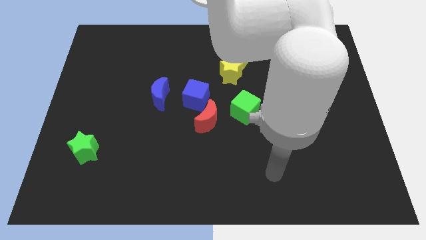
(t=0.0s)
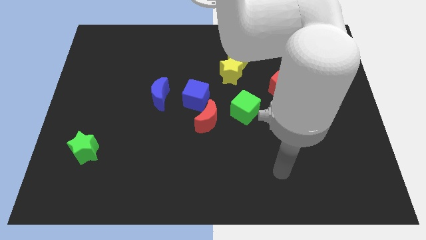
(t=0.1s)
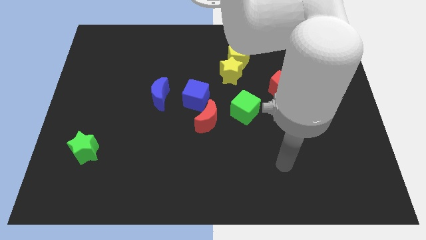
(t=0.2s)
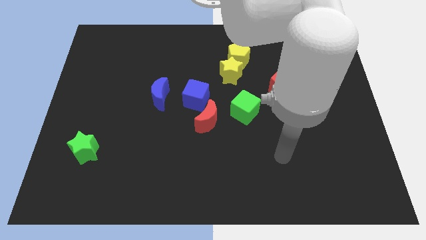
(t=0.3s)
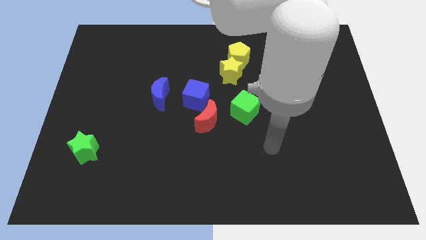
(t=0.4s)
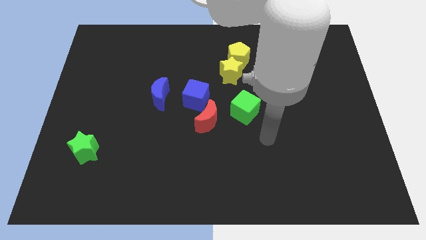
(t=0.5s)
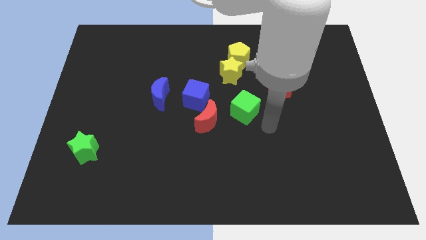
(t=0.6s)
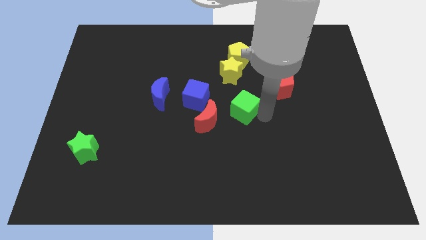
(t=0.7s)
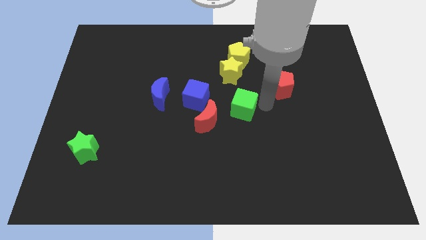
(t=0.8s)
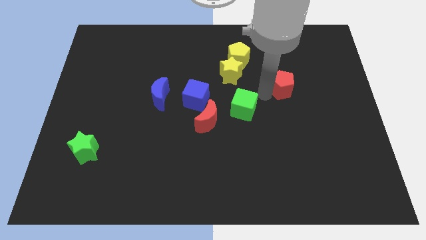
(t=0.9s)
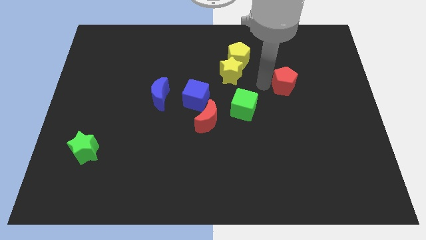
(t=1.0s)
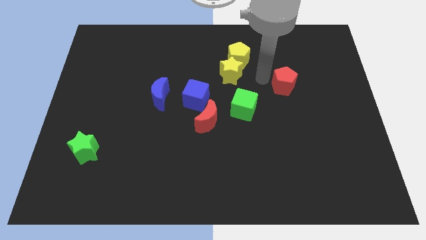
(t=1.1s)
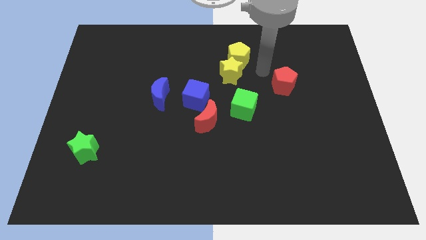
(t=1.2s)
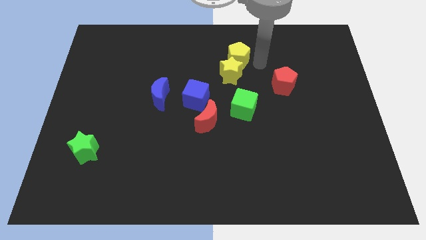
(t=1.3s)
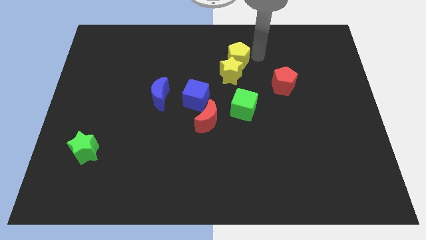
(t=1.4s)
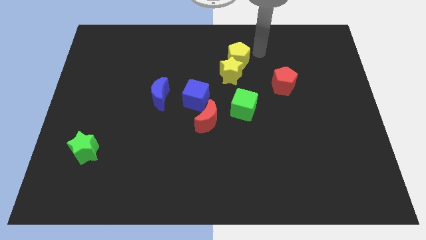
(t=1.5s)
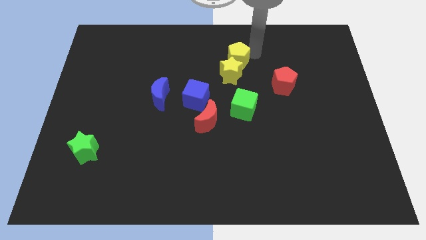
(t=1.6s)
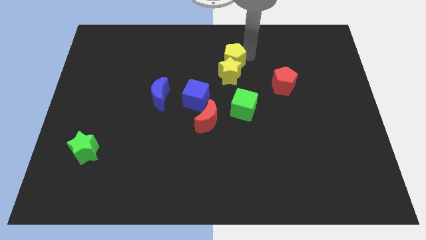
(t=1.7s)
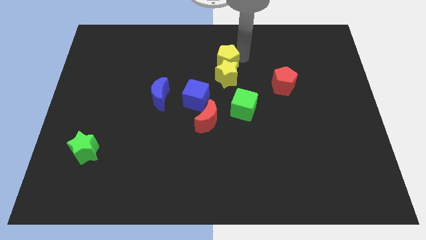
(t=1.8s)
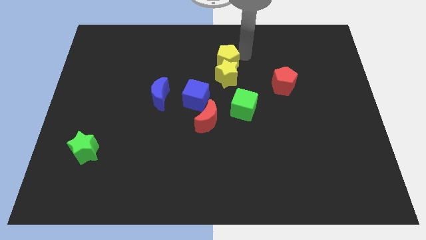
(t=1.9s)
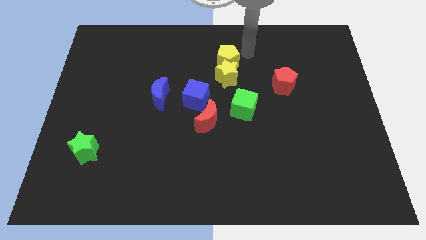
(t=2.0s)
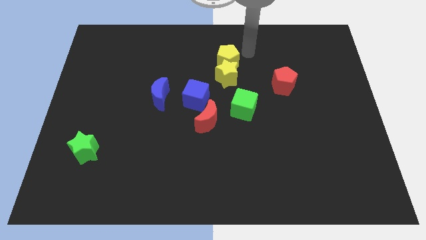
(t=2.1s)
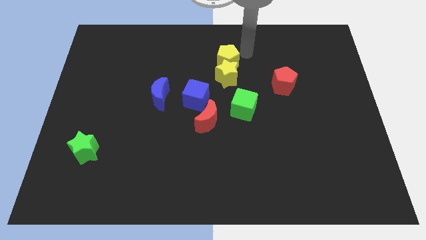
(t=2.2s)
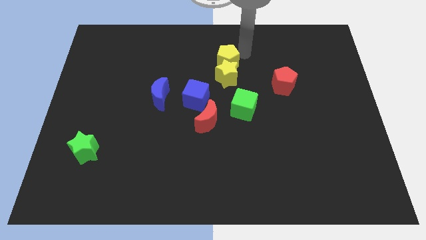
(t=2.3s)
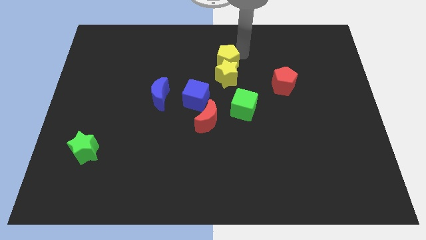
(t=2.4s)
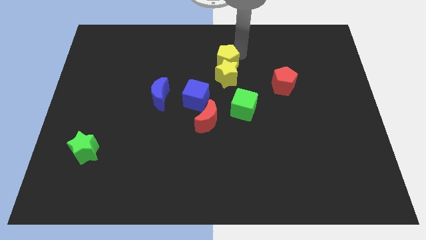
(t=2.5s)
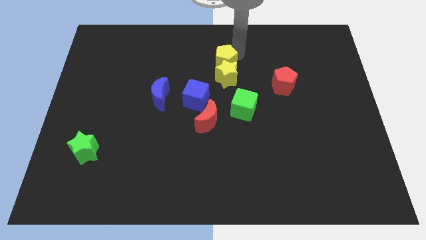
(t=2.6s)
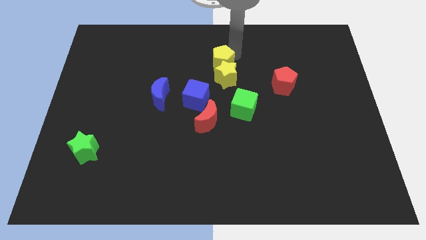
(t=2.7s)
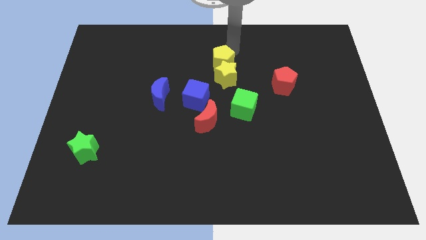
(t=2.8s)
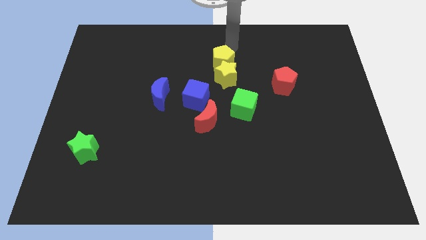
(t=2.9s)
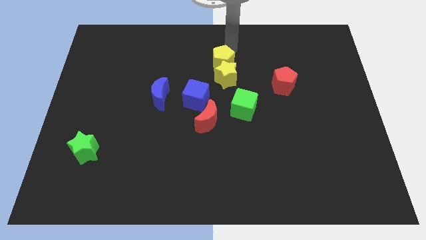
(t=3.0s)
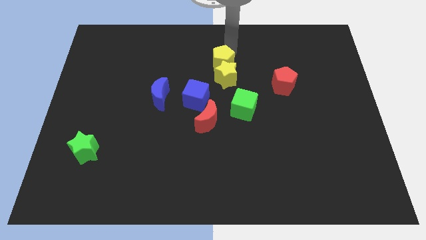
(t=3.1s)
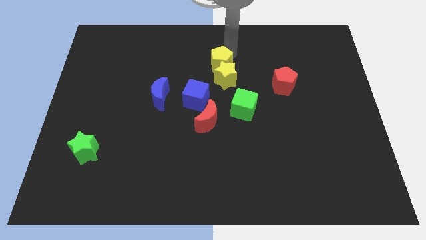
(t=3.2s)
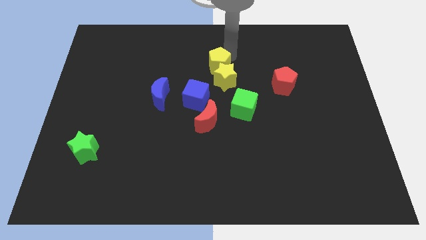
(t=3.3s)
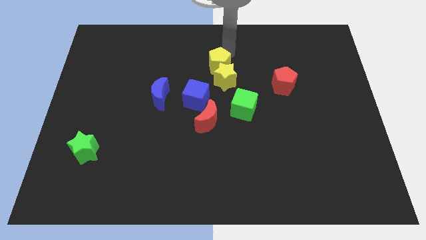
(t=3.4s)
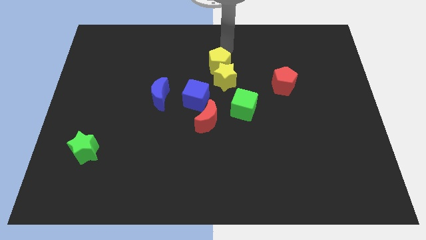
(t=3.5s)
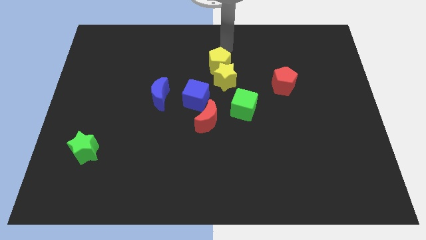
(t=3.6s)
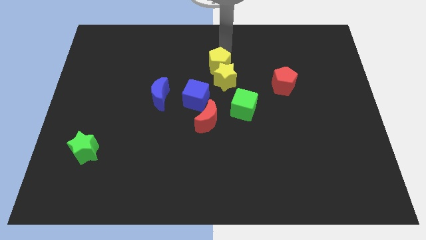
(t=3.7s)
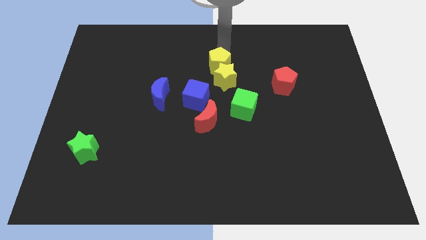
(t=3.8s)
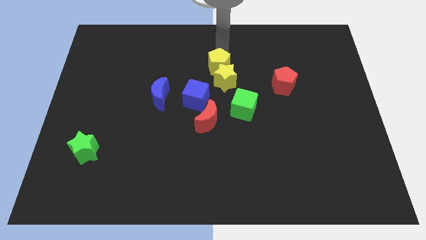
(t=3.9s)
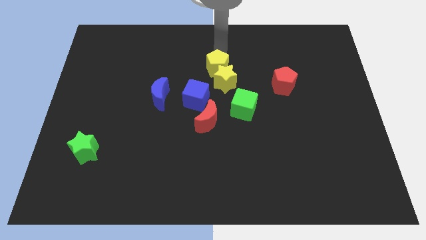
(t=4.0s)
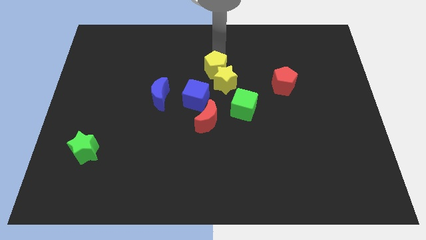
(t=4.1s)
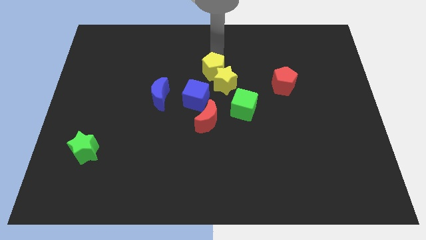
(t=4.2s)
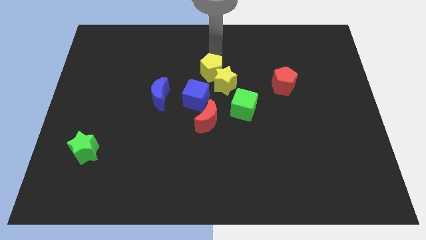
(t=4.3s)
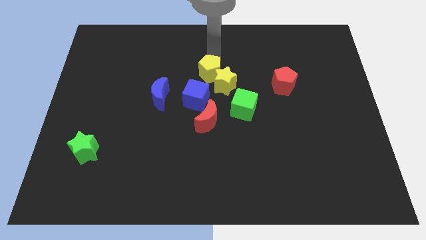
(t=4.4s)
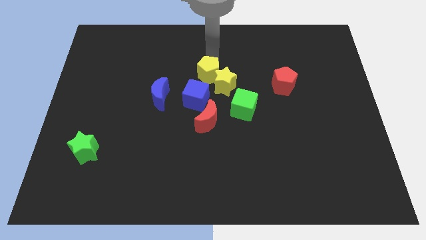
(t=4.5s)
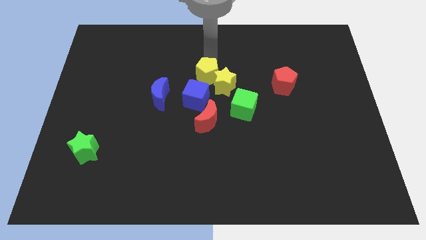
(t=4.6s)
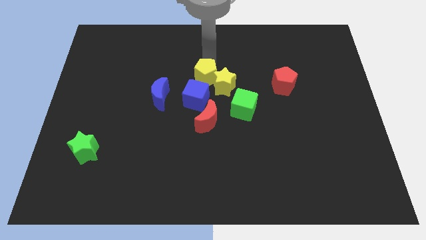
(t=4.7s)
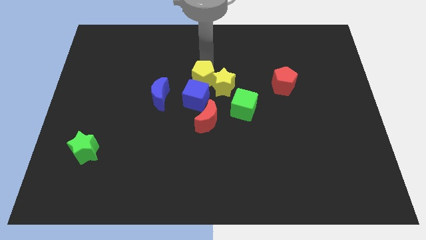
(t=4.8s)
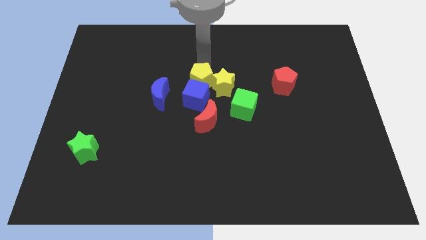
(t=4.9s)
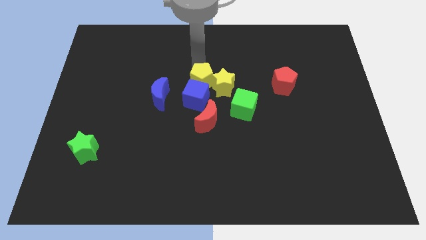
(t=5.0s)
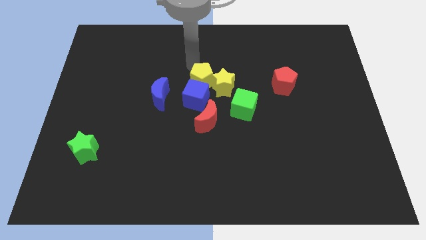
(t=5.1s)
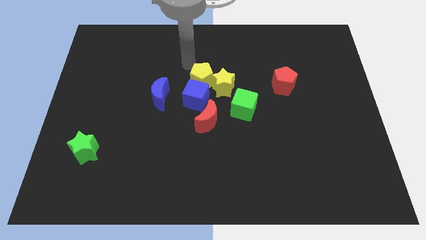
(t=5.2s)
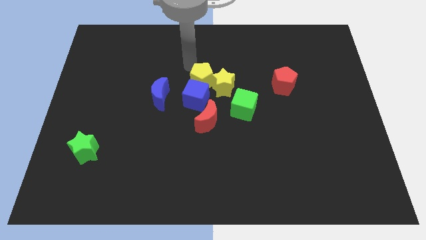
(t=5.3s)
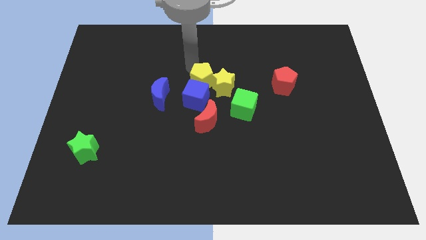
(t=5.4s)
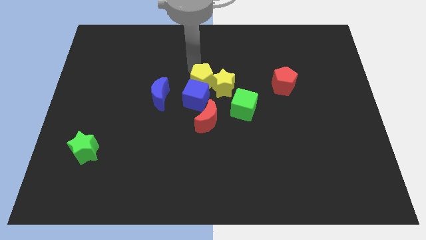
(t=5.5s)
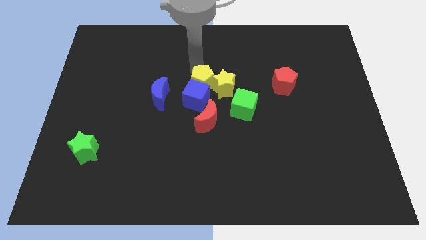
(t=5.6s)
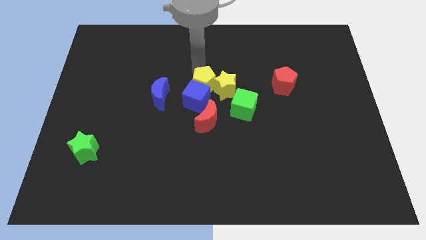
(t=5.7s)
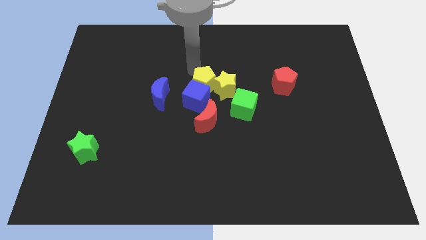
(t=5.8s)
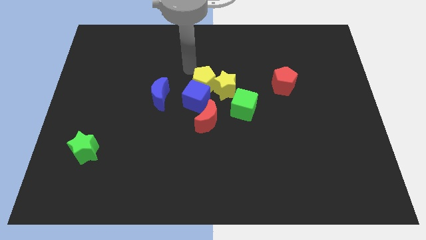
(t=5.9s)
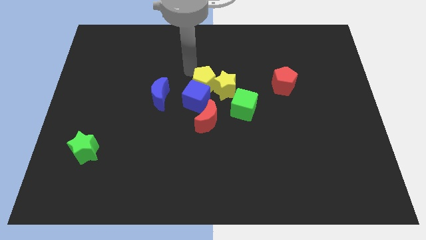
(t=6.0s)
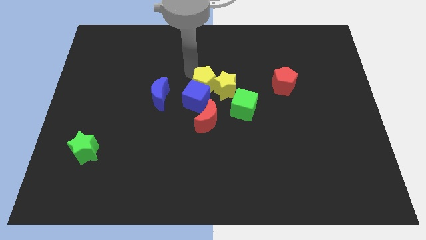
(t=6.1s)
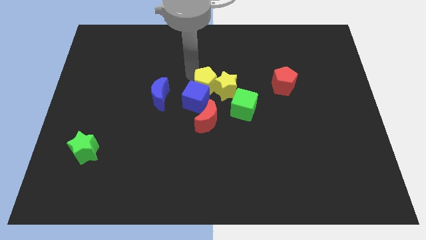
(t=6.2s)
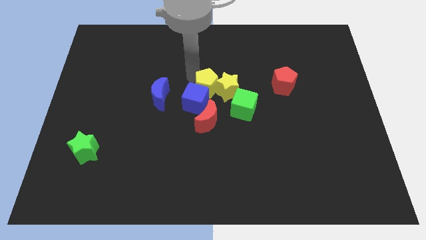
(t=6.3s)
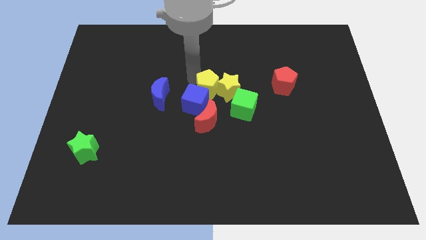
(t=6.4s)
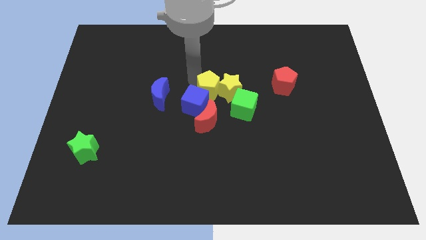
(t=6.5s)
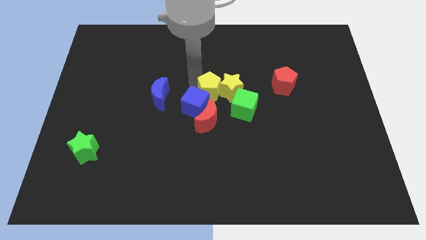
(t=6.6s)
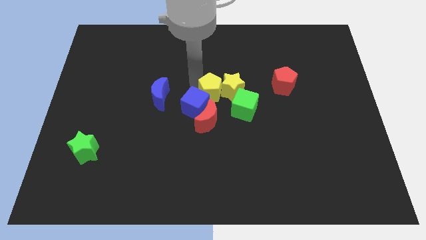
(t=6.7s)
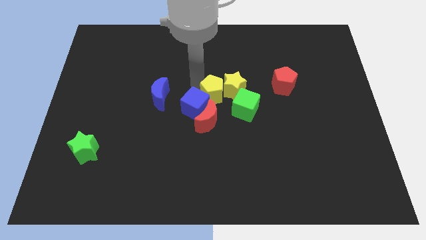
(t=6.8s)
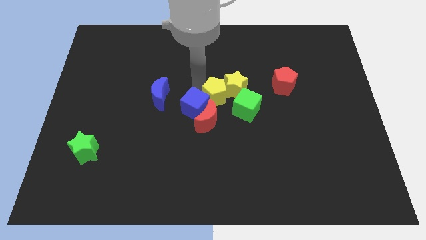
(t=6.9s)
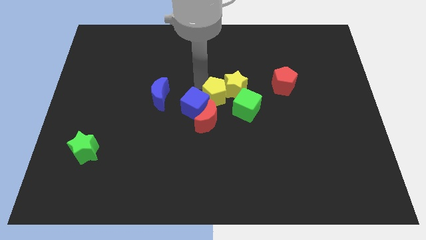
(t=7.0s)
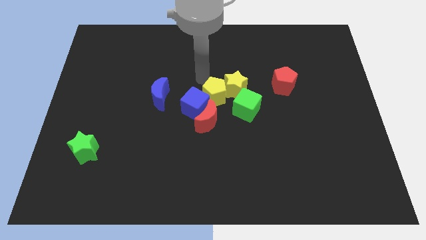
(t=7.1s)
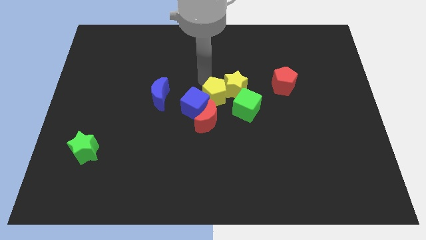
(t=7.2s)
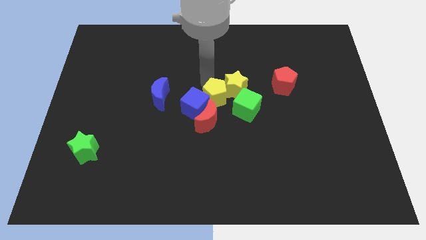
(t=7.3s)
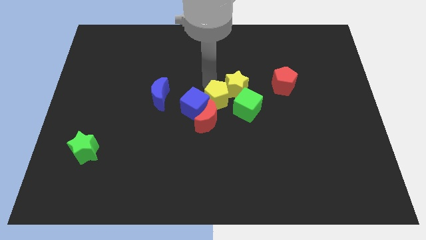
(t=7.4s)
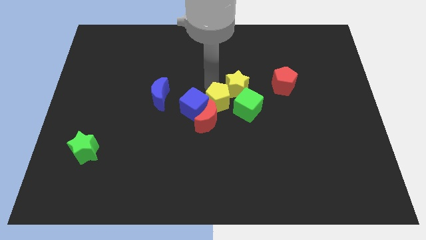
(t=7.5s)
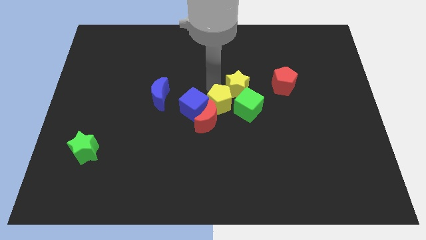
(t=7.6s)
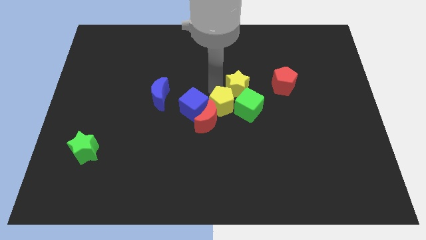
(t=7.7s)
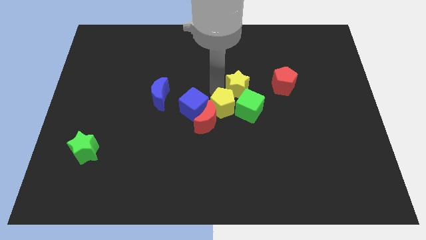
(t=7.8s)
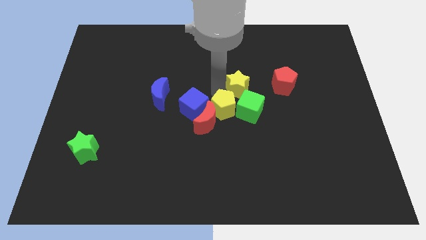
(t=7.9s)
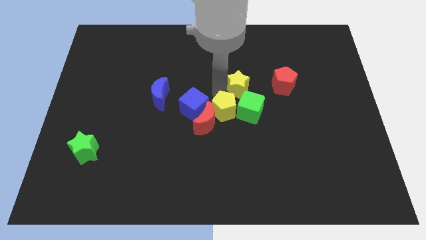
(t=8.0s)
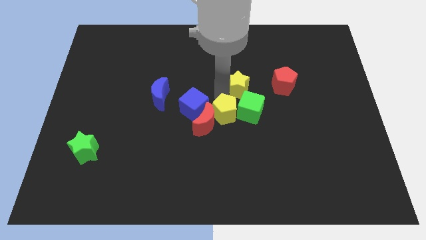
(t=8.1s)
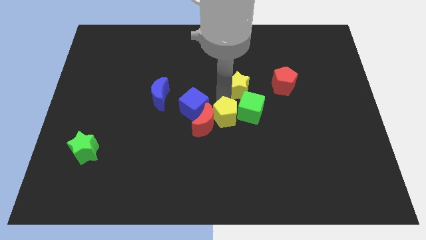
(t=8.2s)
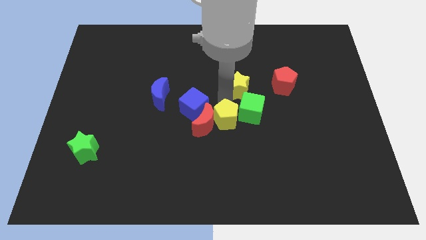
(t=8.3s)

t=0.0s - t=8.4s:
move the yellow pentagon to the bottom right of the red moon
